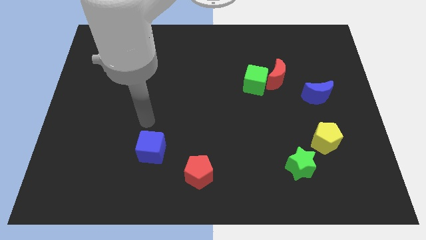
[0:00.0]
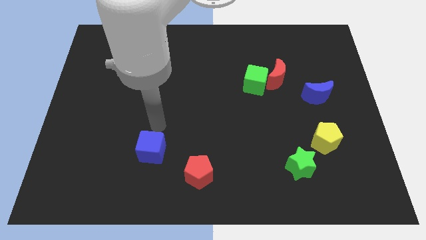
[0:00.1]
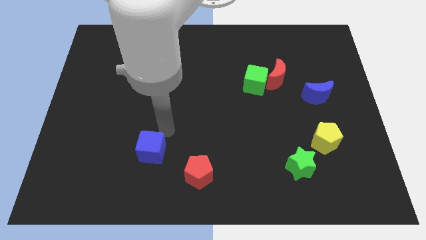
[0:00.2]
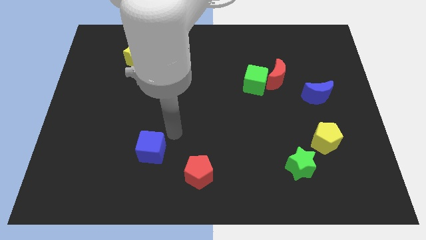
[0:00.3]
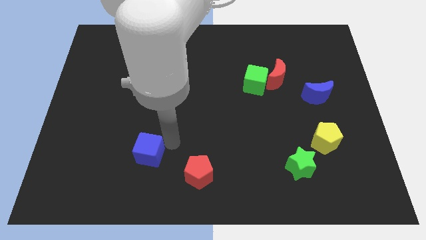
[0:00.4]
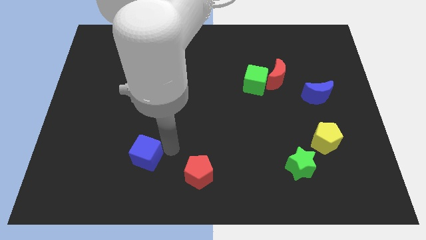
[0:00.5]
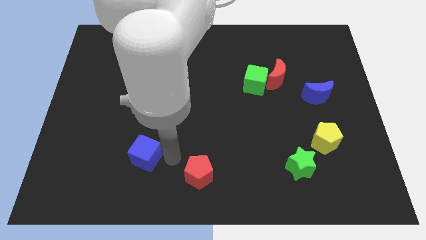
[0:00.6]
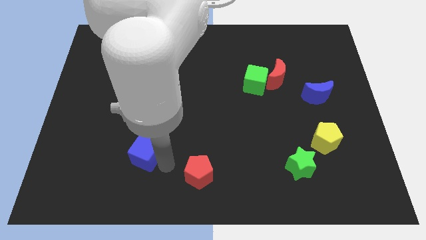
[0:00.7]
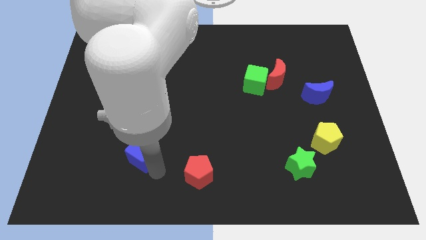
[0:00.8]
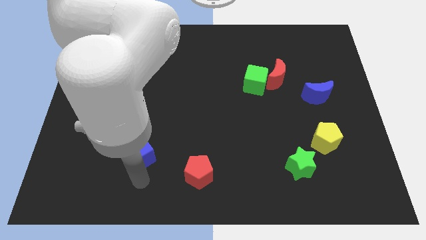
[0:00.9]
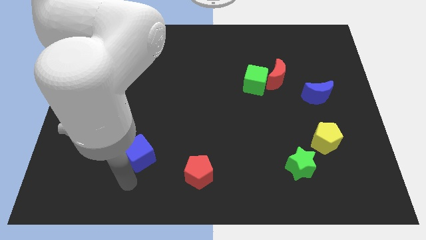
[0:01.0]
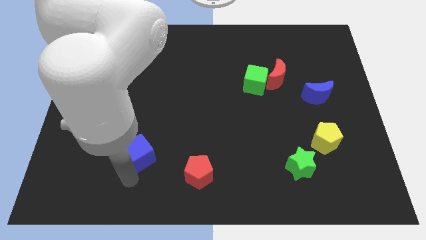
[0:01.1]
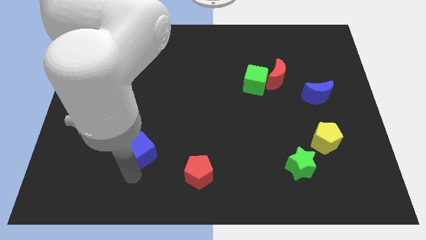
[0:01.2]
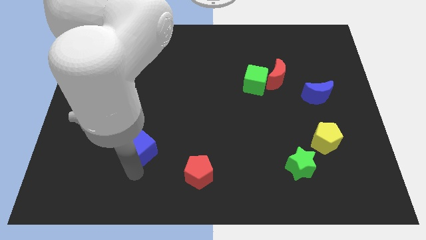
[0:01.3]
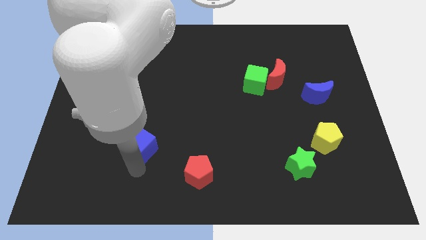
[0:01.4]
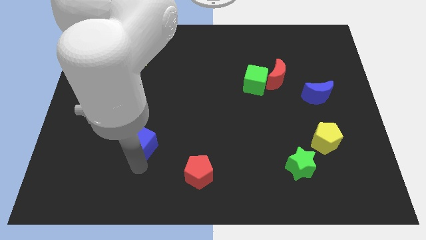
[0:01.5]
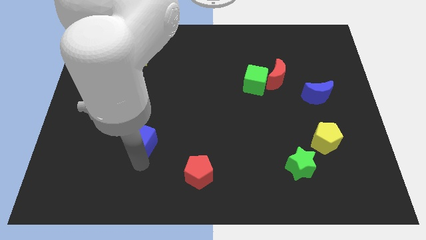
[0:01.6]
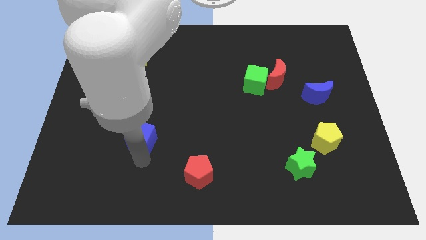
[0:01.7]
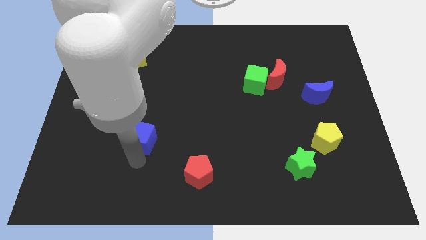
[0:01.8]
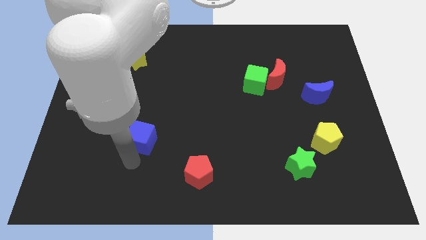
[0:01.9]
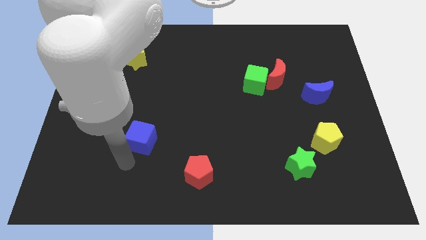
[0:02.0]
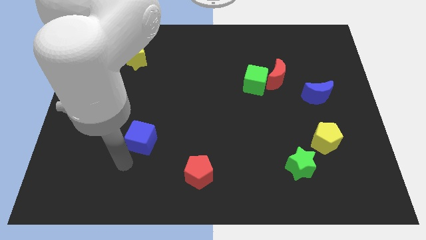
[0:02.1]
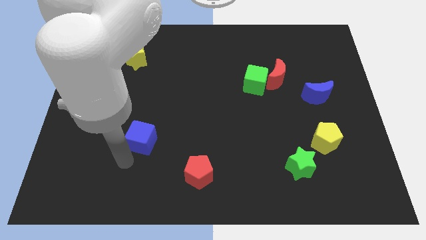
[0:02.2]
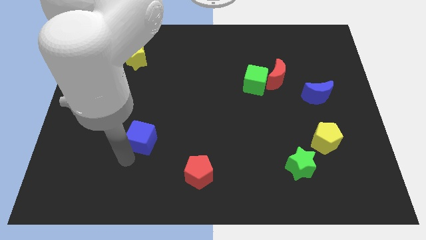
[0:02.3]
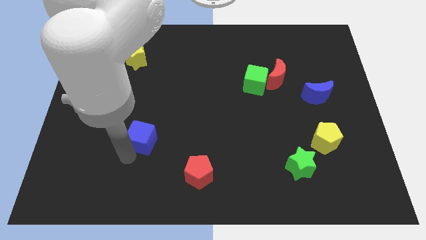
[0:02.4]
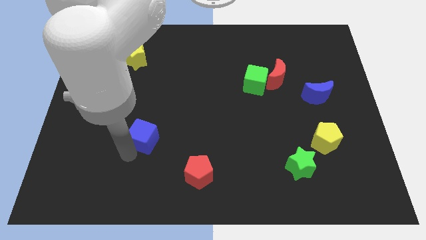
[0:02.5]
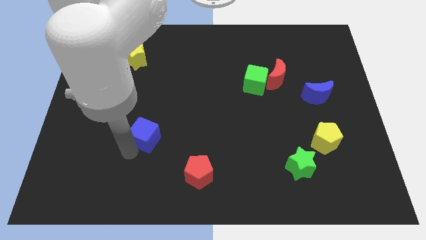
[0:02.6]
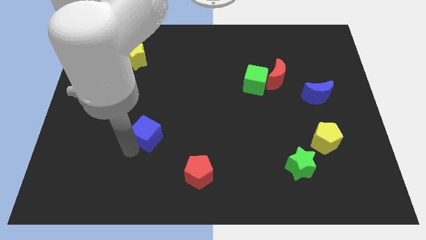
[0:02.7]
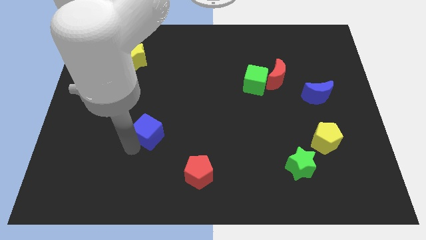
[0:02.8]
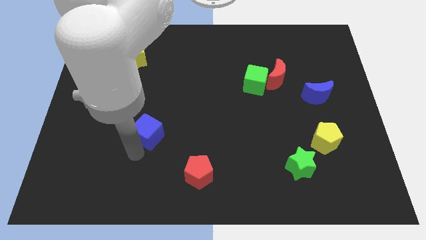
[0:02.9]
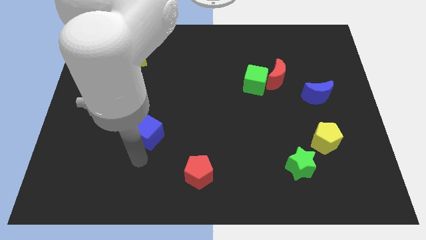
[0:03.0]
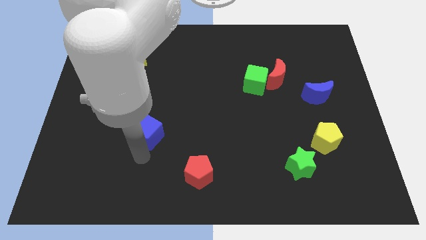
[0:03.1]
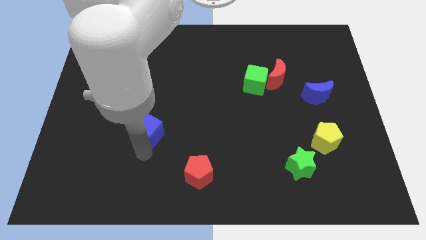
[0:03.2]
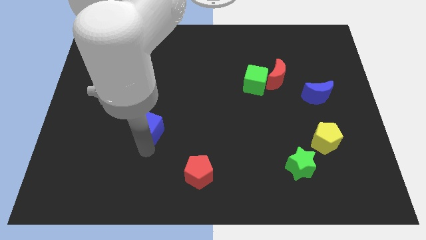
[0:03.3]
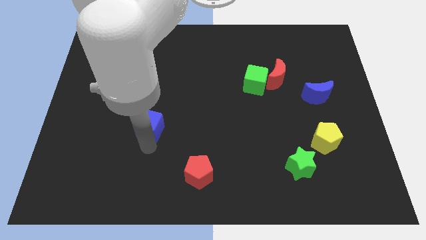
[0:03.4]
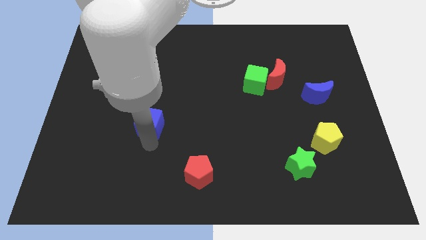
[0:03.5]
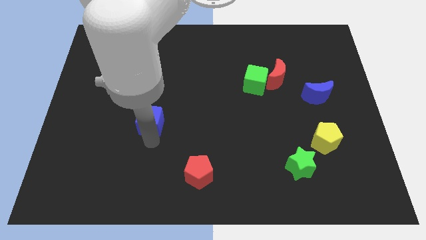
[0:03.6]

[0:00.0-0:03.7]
move the blue cube a little bit up

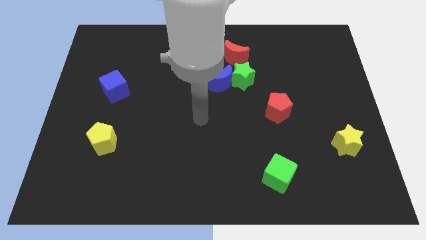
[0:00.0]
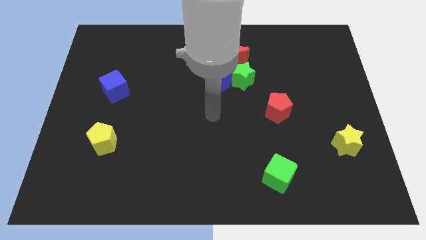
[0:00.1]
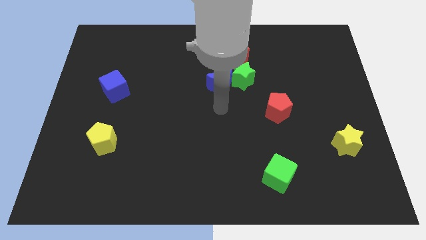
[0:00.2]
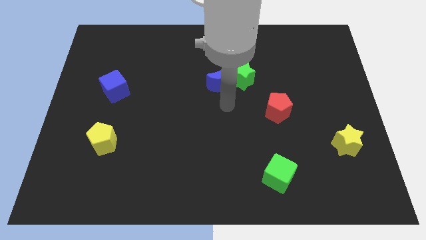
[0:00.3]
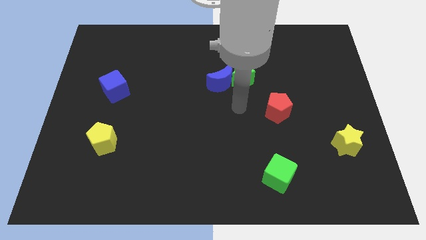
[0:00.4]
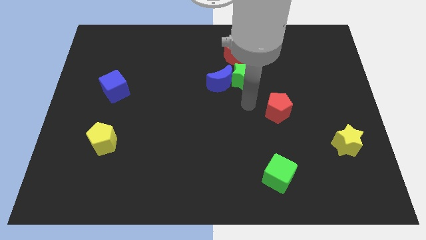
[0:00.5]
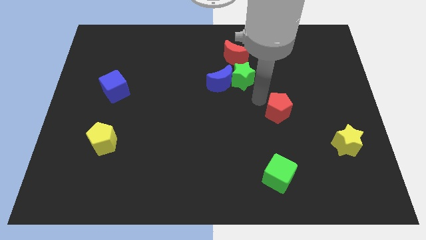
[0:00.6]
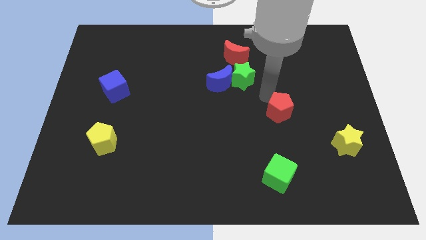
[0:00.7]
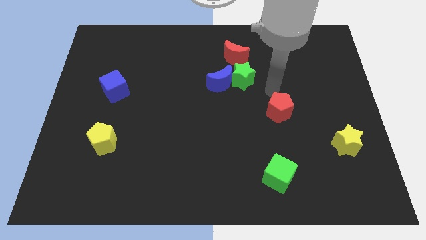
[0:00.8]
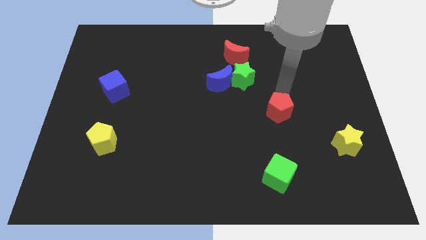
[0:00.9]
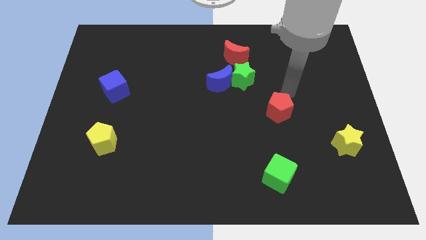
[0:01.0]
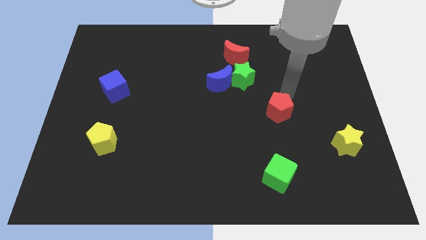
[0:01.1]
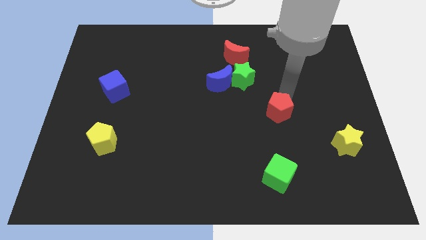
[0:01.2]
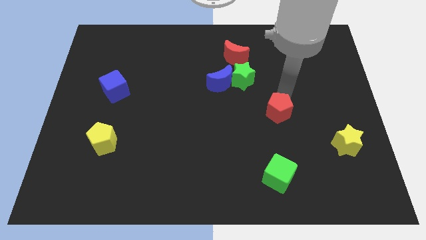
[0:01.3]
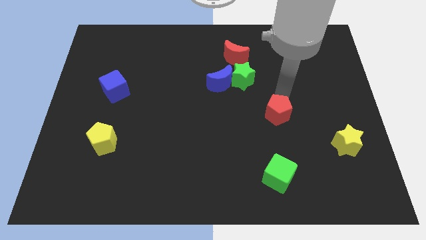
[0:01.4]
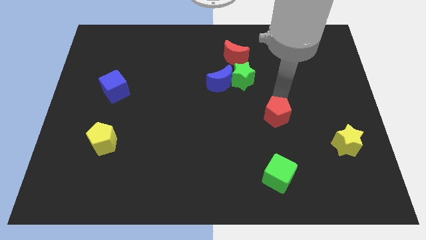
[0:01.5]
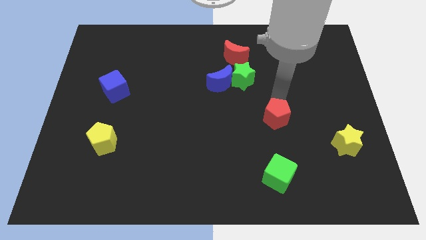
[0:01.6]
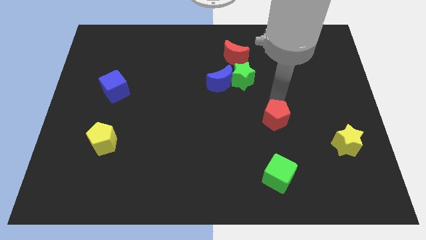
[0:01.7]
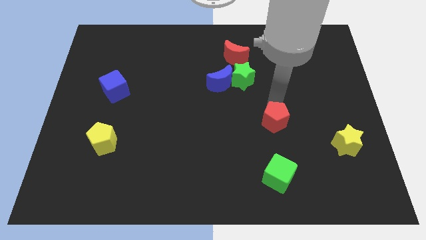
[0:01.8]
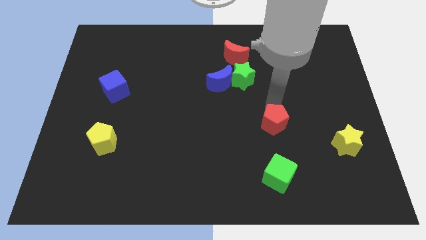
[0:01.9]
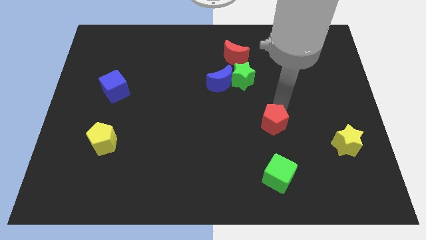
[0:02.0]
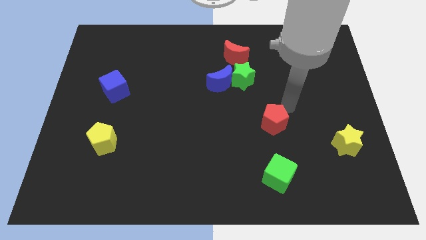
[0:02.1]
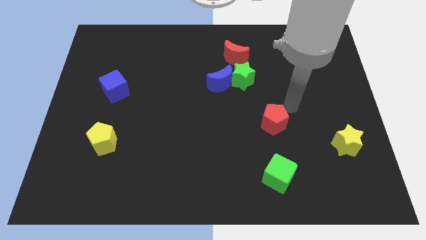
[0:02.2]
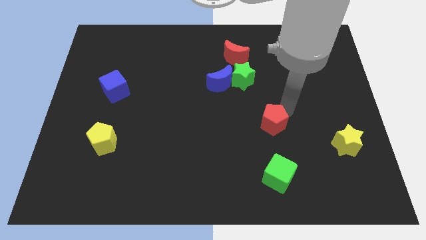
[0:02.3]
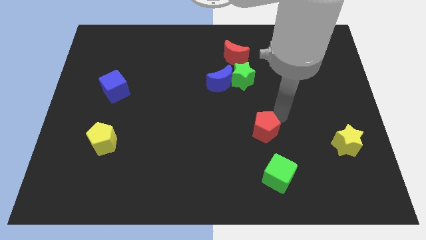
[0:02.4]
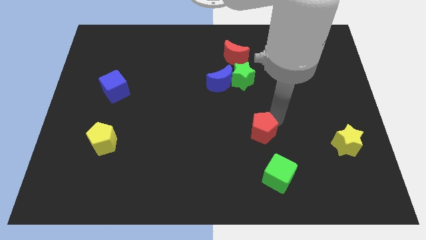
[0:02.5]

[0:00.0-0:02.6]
slide the red pentagon a bit downwards and to the left

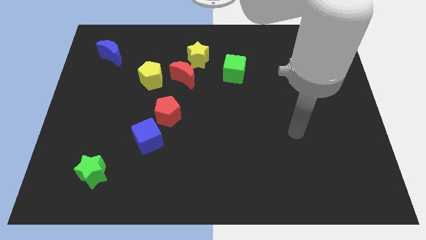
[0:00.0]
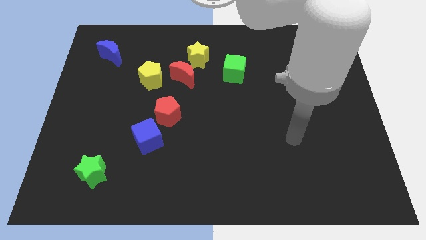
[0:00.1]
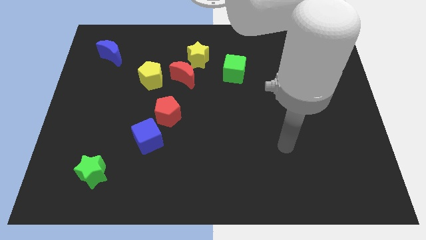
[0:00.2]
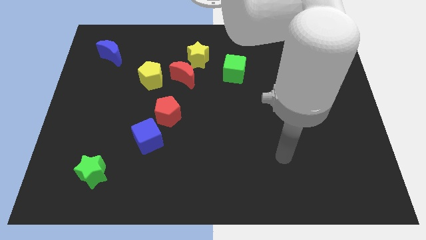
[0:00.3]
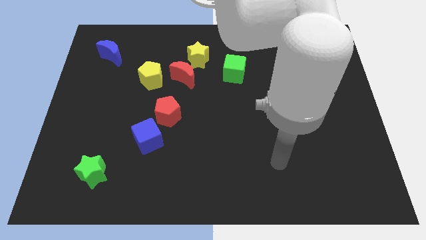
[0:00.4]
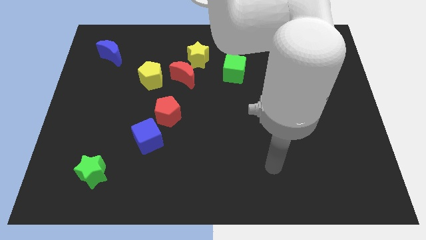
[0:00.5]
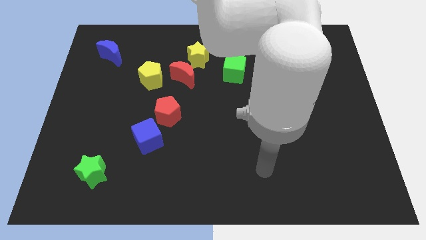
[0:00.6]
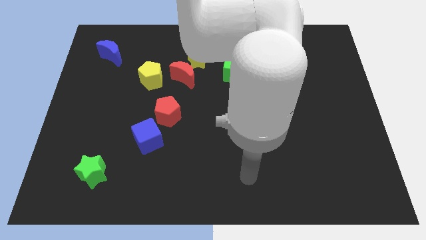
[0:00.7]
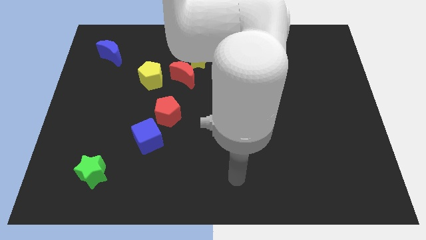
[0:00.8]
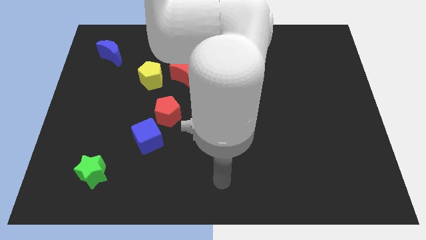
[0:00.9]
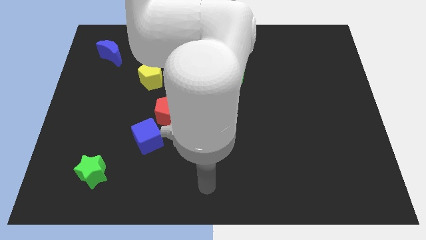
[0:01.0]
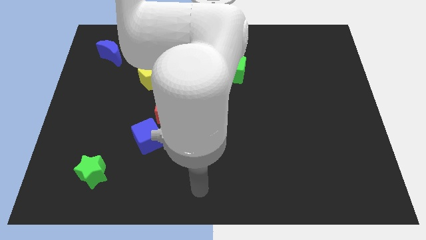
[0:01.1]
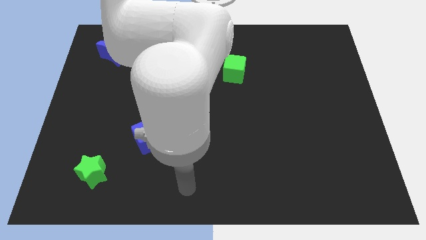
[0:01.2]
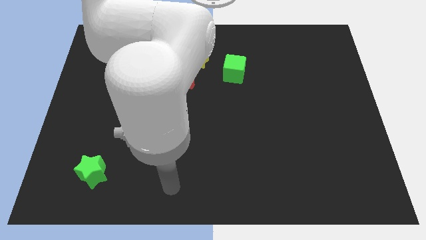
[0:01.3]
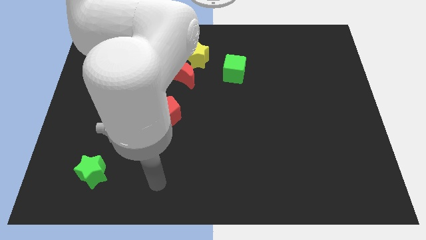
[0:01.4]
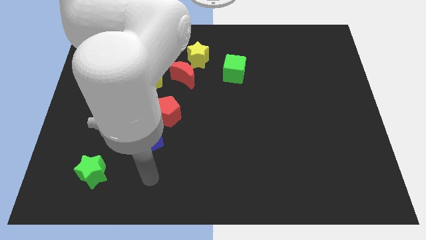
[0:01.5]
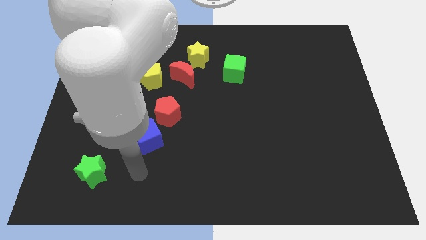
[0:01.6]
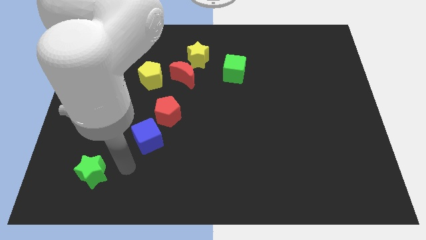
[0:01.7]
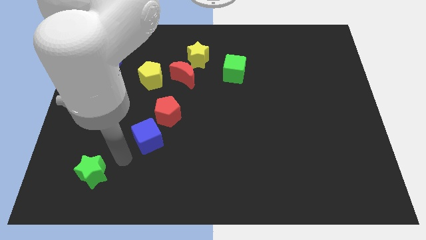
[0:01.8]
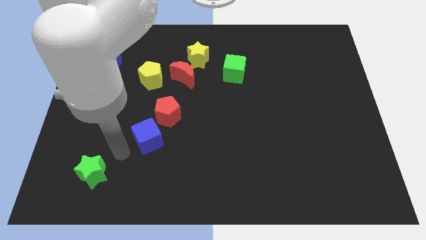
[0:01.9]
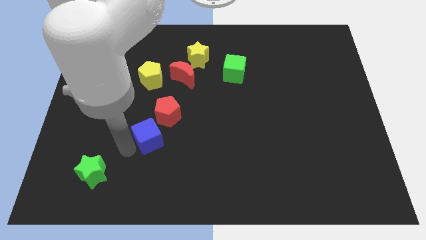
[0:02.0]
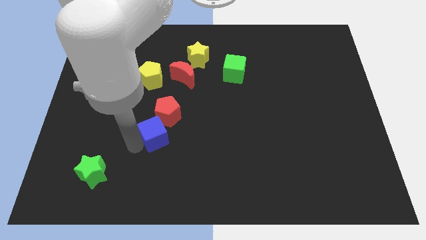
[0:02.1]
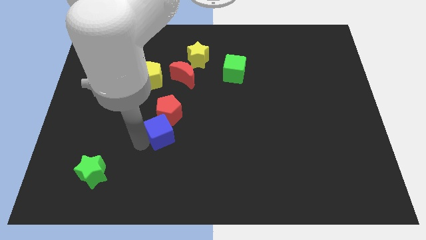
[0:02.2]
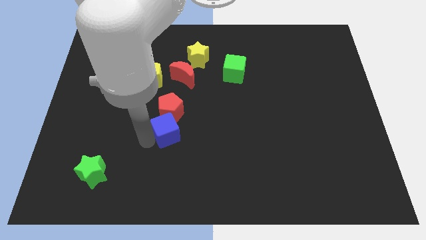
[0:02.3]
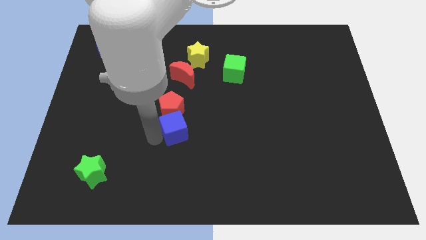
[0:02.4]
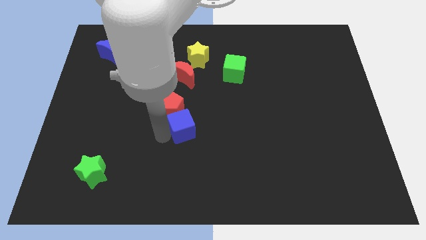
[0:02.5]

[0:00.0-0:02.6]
move the blue cube diagonally up and to the right somewhat
